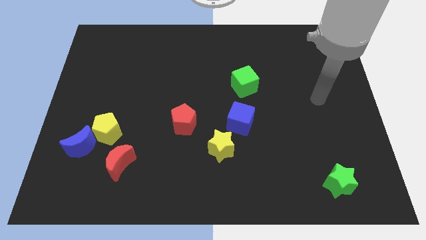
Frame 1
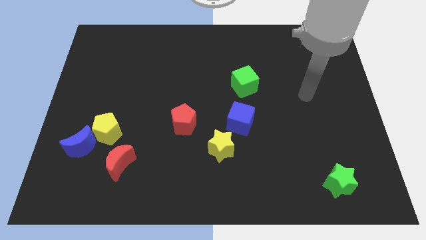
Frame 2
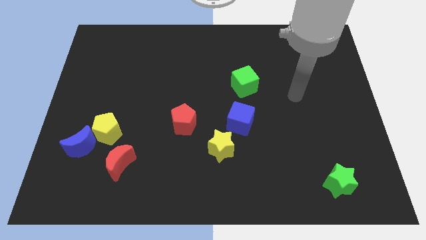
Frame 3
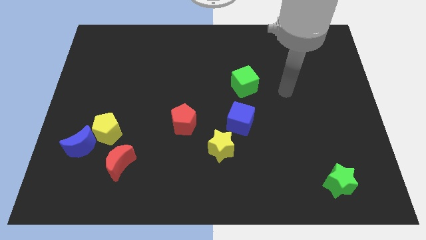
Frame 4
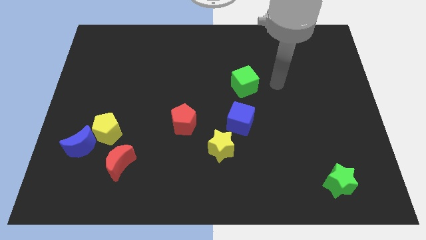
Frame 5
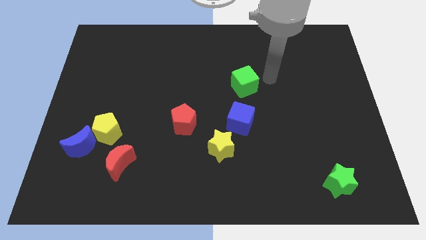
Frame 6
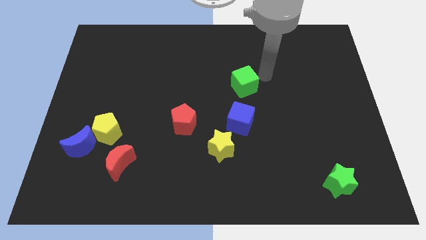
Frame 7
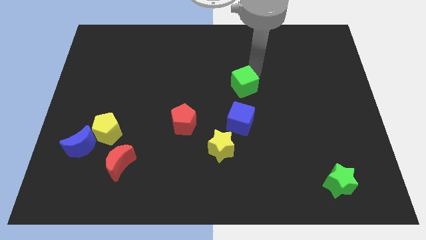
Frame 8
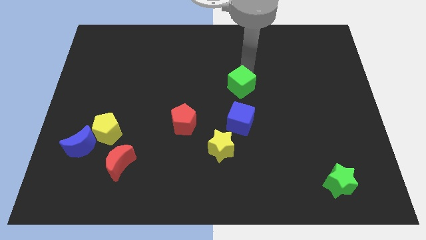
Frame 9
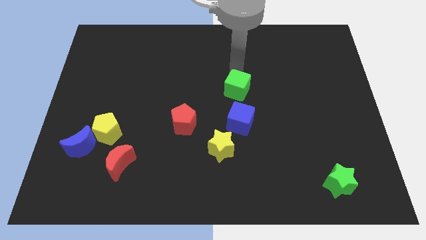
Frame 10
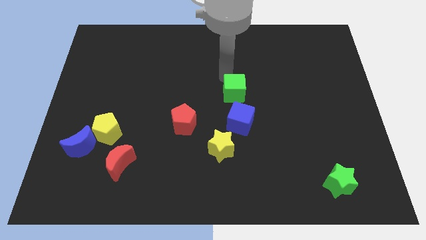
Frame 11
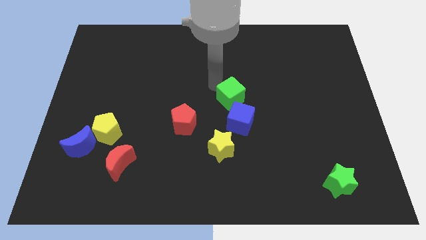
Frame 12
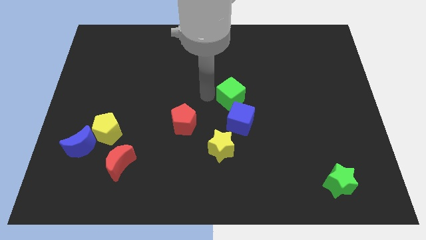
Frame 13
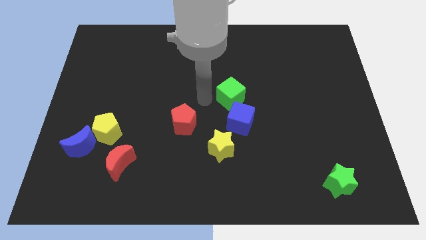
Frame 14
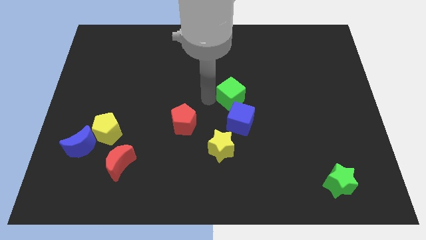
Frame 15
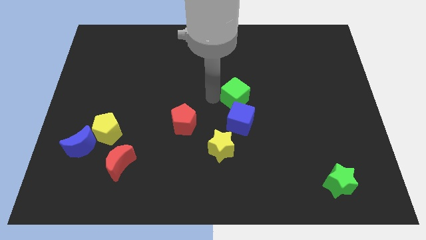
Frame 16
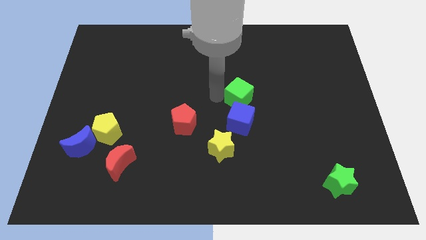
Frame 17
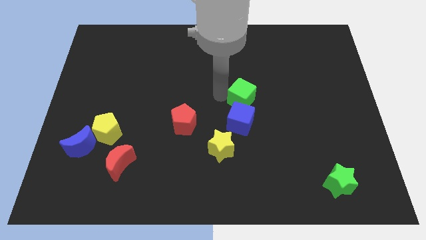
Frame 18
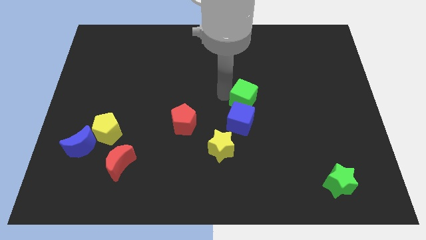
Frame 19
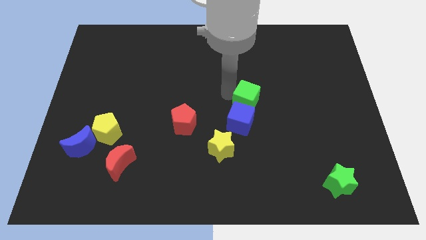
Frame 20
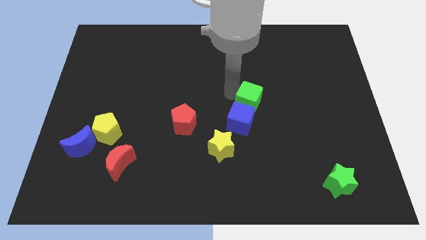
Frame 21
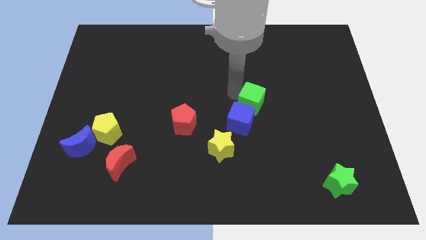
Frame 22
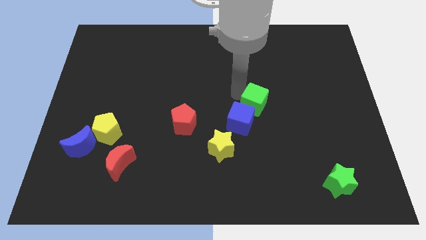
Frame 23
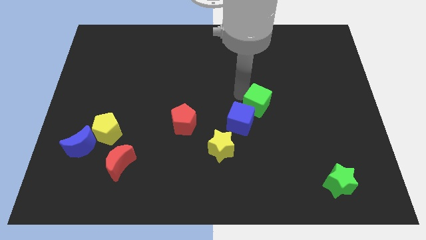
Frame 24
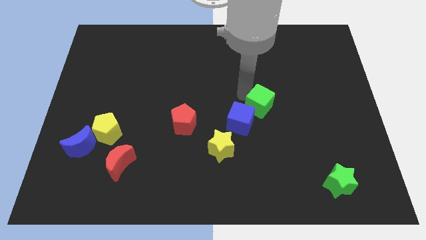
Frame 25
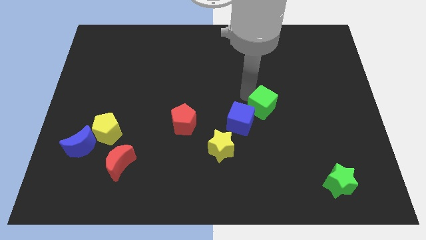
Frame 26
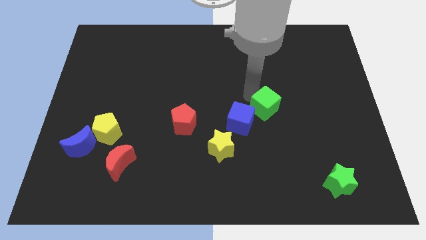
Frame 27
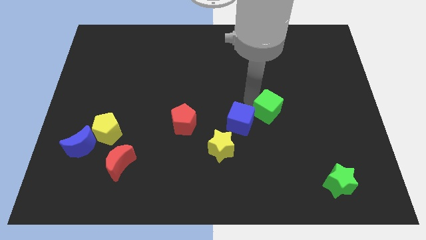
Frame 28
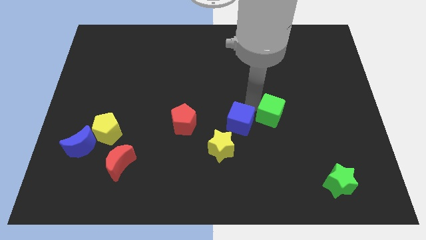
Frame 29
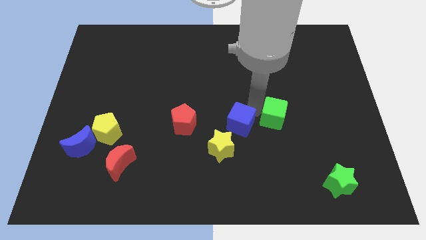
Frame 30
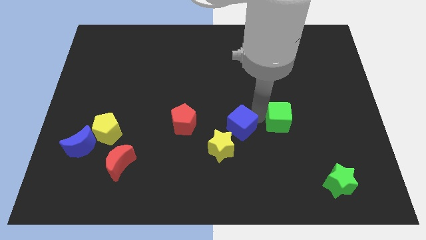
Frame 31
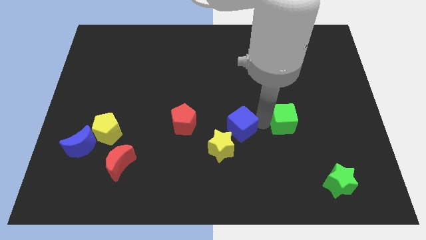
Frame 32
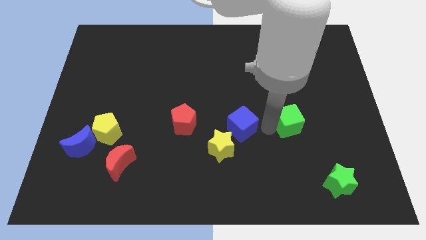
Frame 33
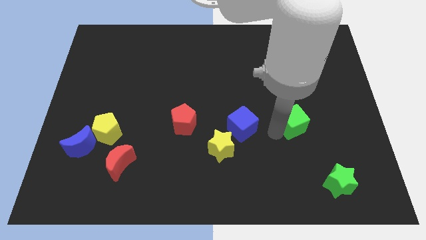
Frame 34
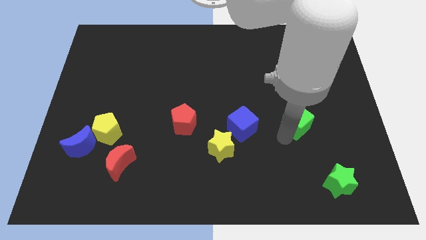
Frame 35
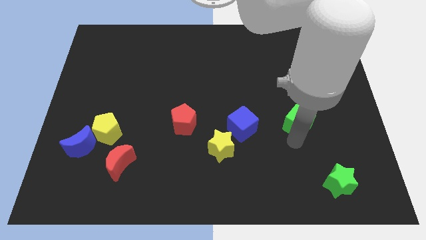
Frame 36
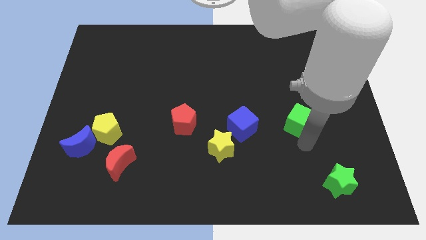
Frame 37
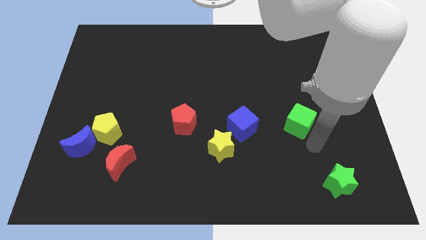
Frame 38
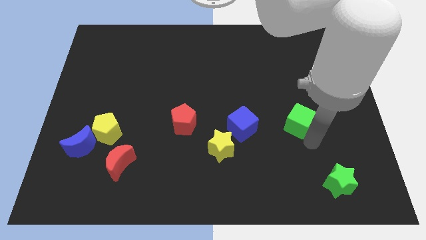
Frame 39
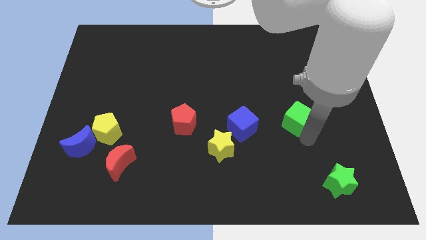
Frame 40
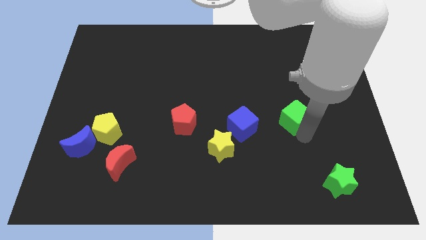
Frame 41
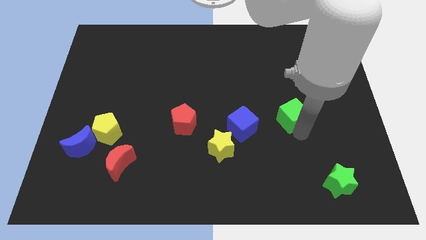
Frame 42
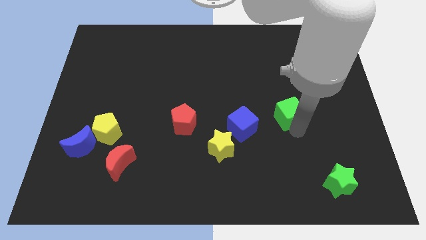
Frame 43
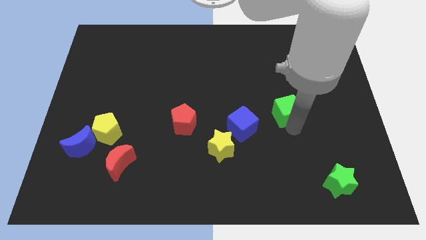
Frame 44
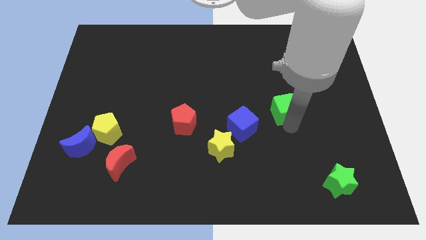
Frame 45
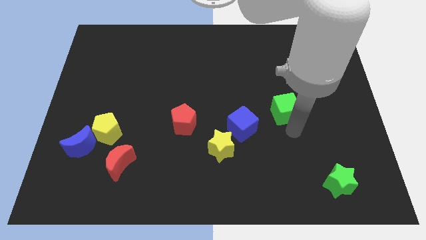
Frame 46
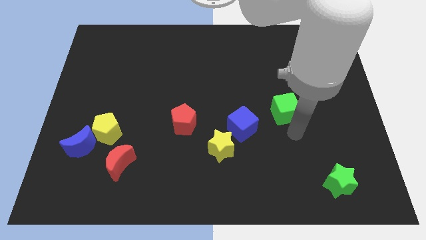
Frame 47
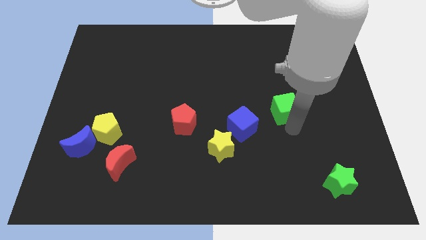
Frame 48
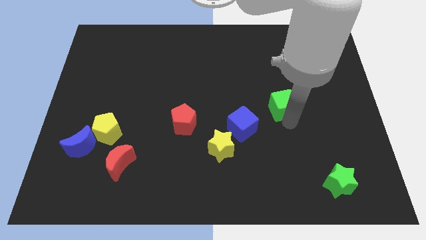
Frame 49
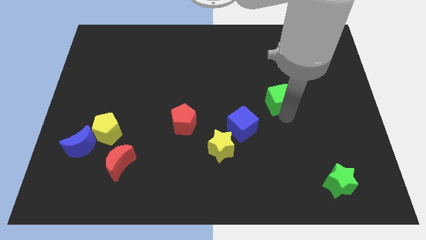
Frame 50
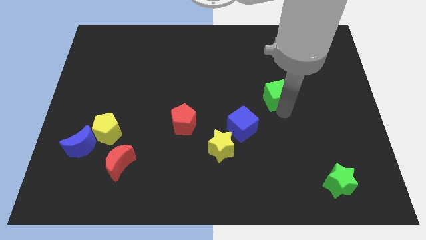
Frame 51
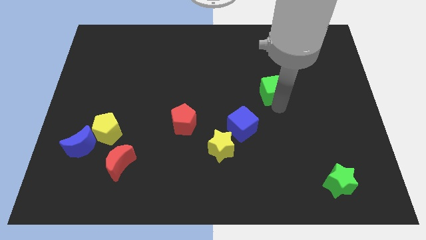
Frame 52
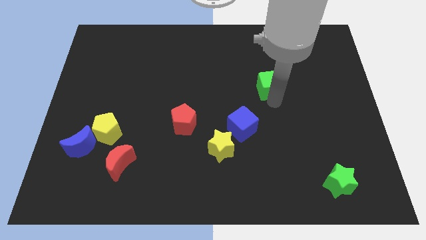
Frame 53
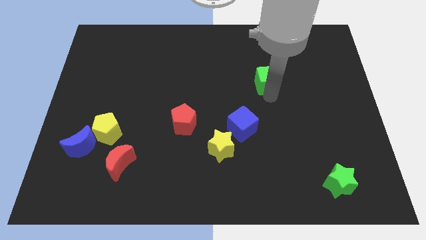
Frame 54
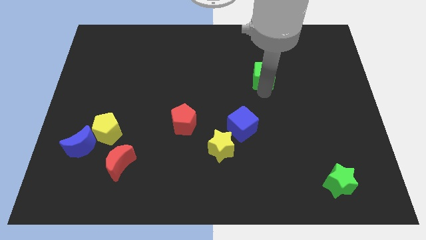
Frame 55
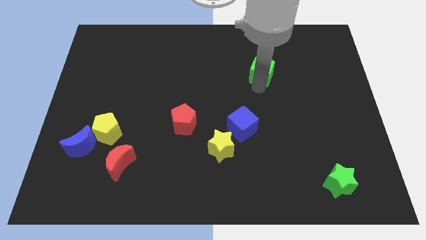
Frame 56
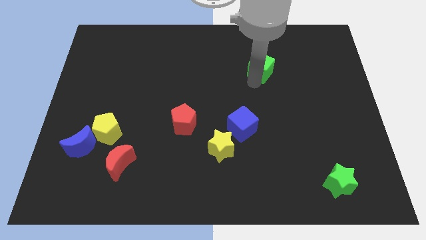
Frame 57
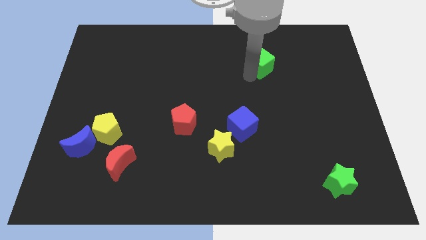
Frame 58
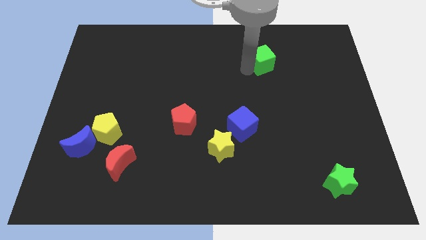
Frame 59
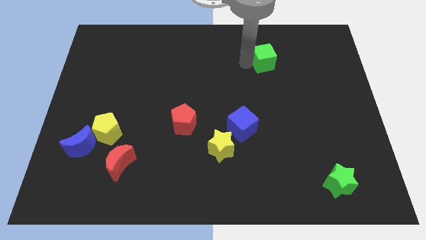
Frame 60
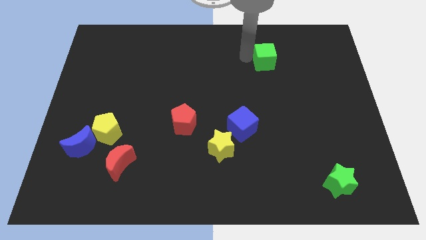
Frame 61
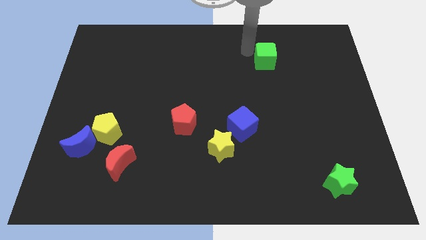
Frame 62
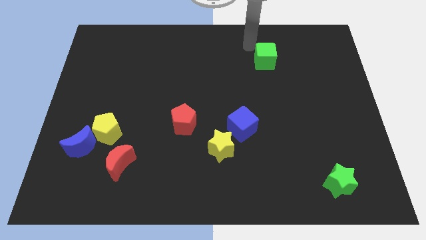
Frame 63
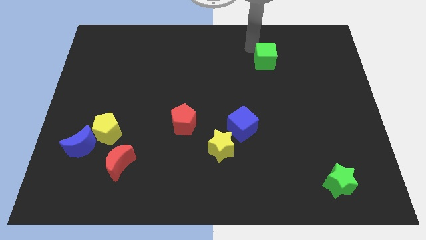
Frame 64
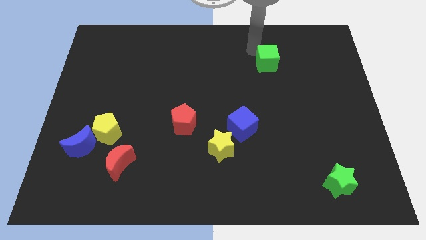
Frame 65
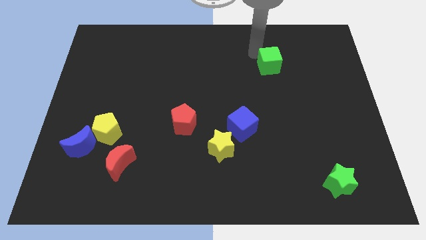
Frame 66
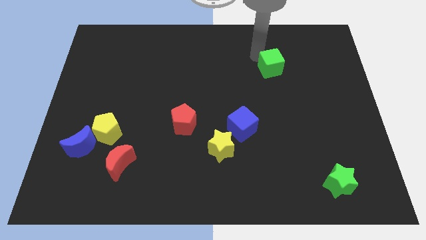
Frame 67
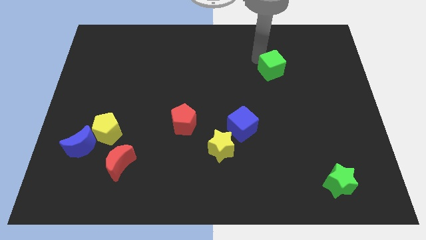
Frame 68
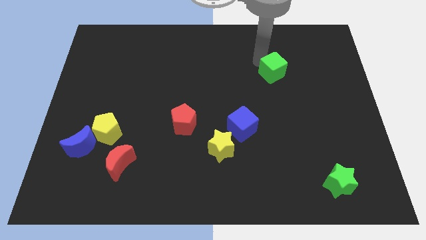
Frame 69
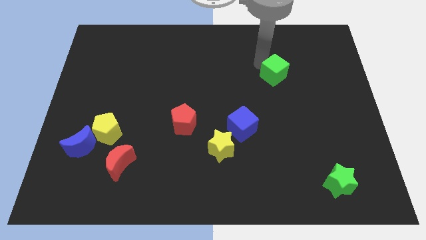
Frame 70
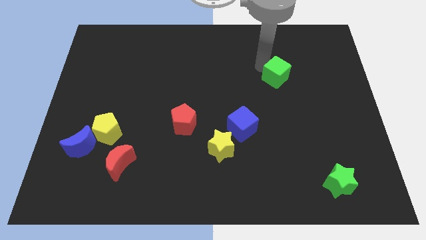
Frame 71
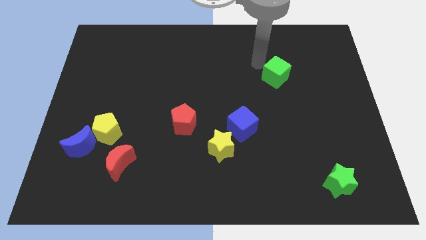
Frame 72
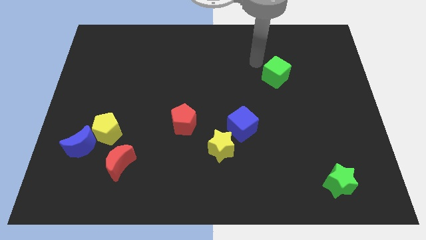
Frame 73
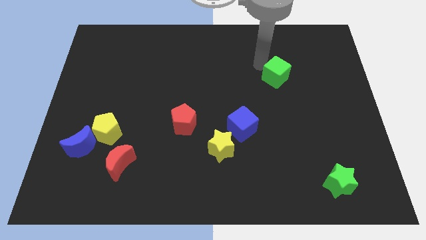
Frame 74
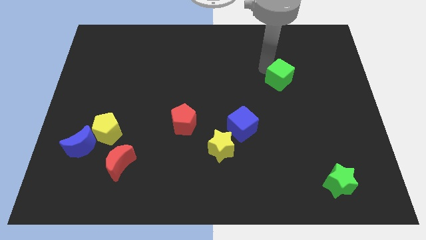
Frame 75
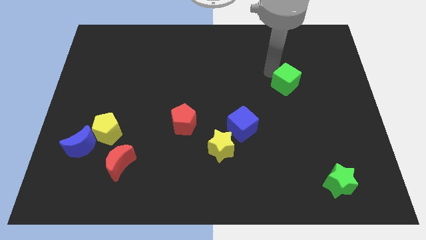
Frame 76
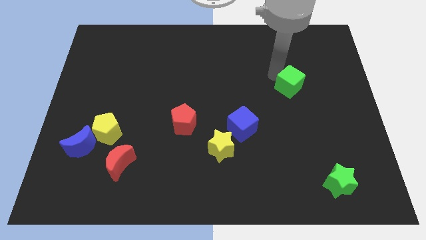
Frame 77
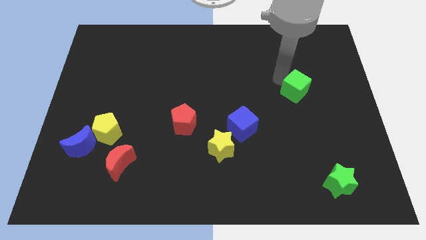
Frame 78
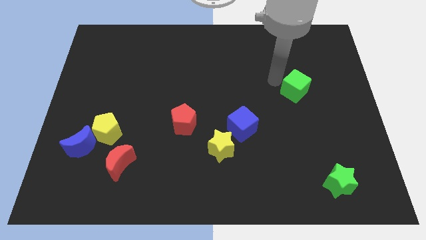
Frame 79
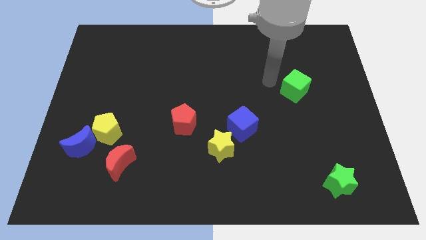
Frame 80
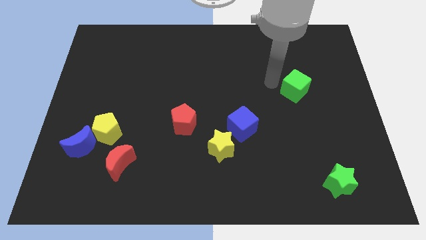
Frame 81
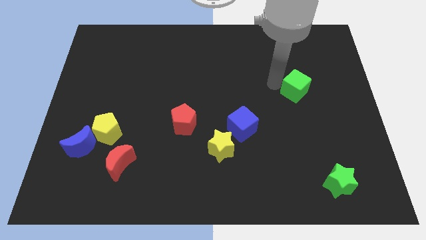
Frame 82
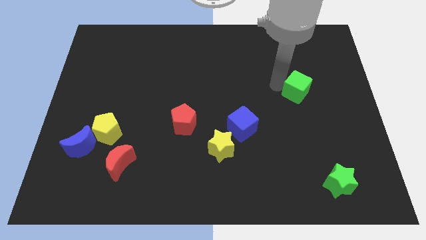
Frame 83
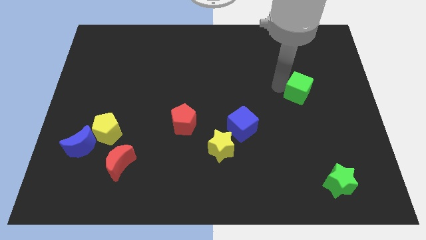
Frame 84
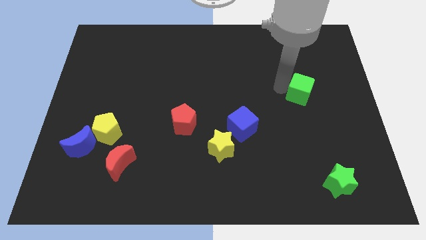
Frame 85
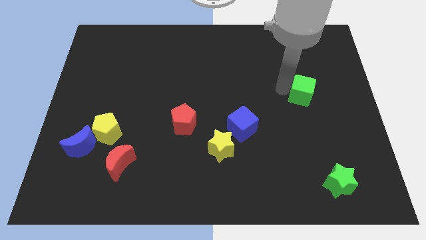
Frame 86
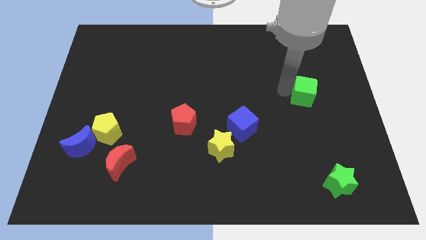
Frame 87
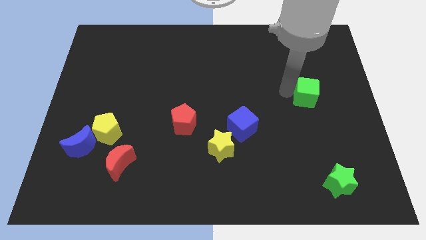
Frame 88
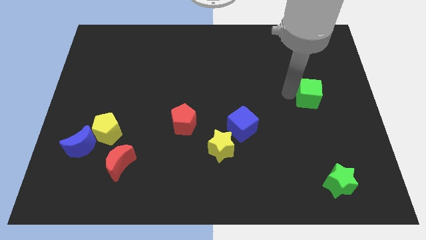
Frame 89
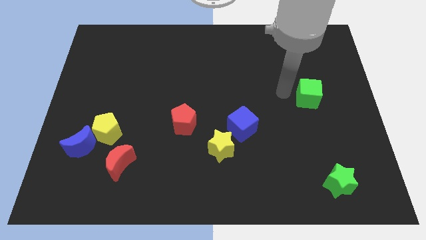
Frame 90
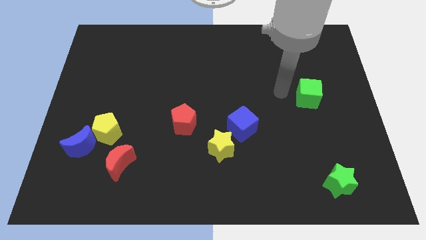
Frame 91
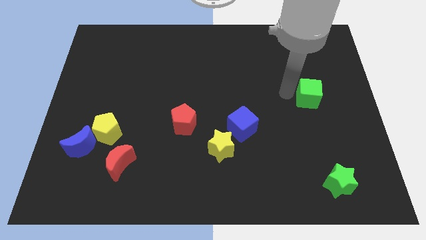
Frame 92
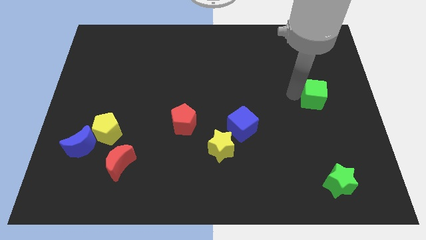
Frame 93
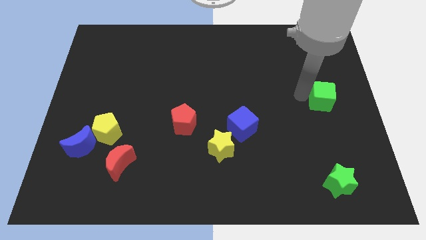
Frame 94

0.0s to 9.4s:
move the green cube to the right side of the board
